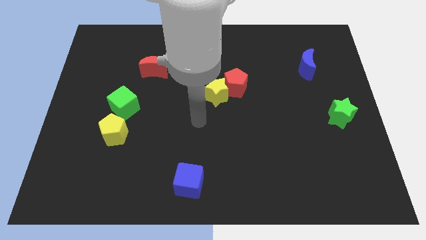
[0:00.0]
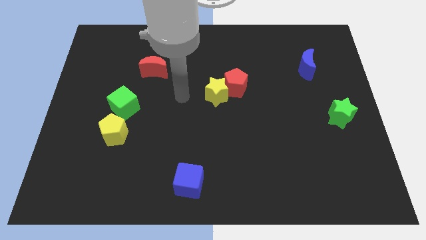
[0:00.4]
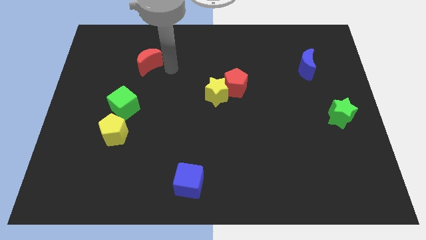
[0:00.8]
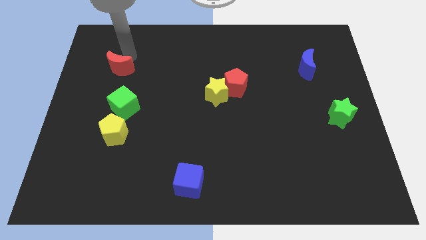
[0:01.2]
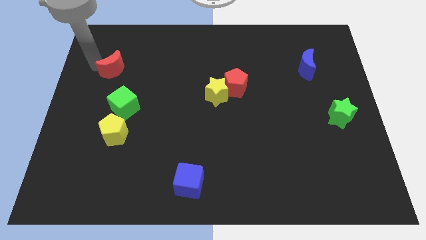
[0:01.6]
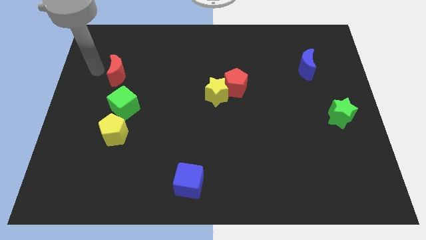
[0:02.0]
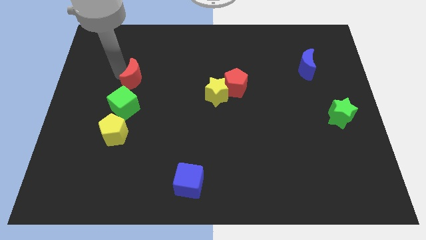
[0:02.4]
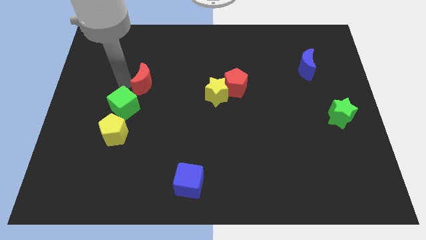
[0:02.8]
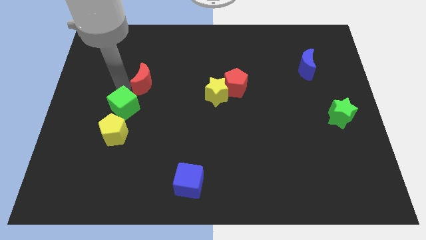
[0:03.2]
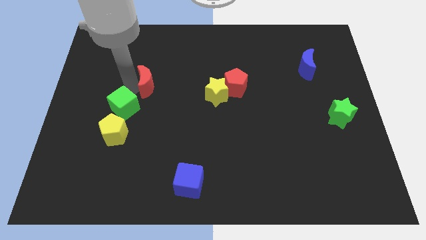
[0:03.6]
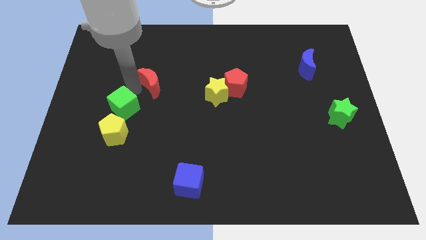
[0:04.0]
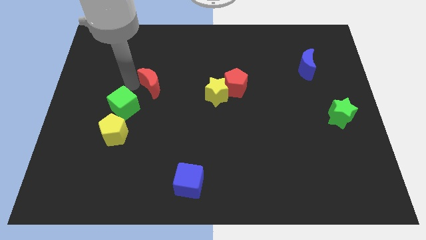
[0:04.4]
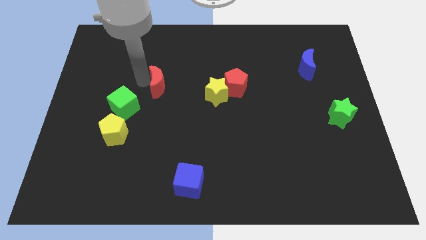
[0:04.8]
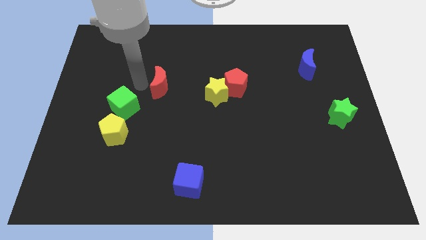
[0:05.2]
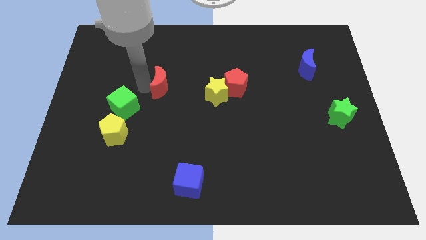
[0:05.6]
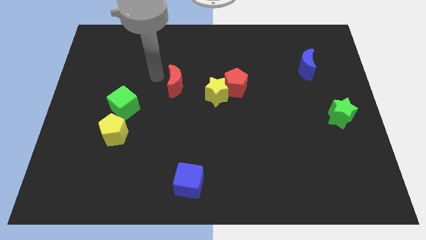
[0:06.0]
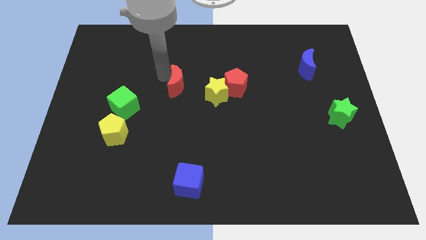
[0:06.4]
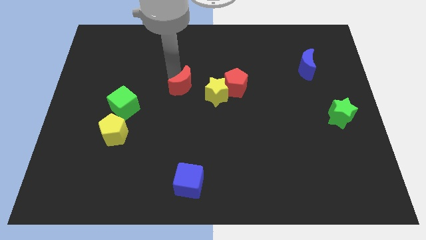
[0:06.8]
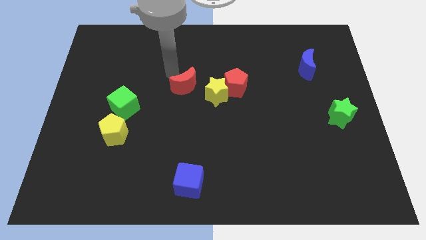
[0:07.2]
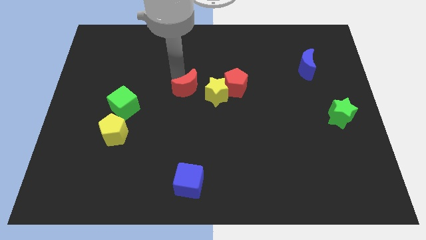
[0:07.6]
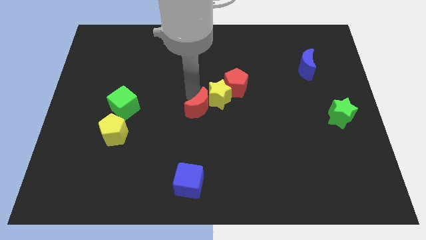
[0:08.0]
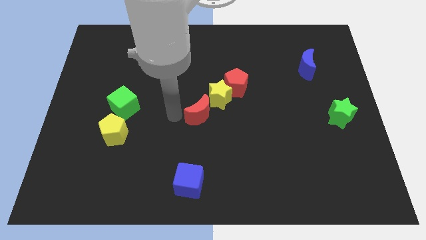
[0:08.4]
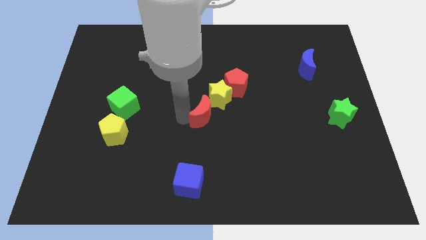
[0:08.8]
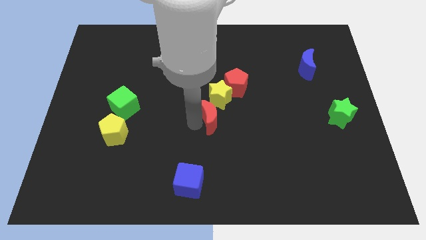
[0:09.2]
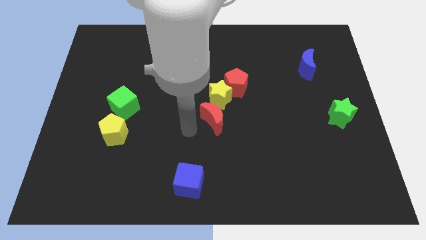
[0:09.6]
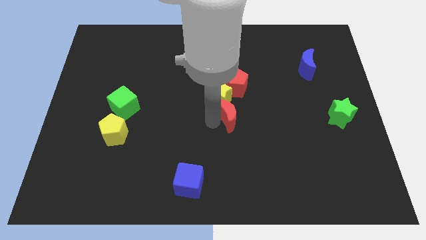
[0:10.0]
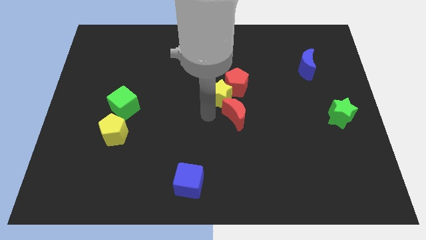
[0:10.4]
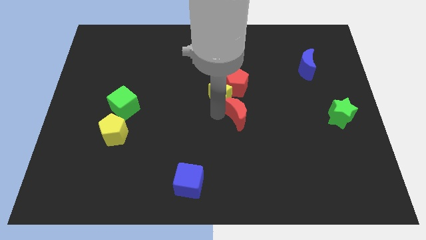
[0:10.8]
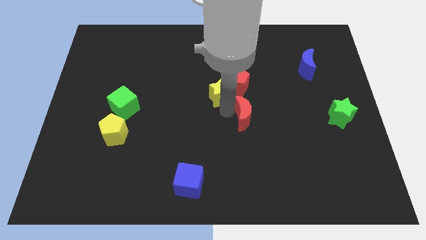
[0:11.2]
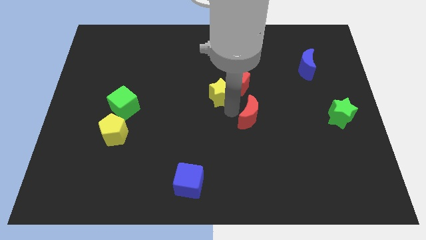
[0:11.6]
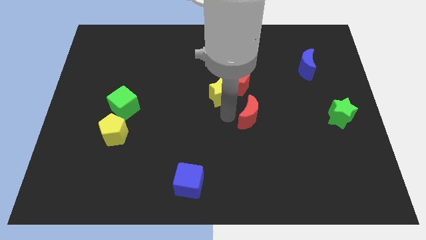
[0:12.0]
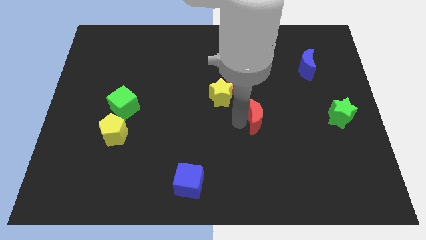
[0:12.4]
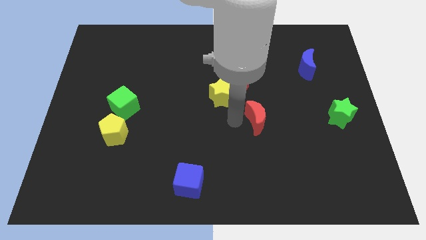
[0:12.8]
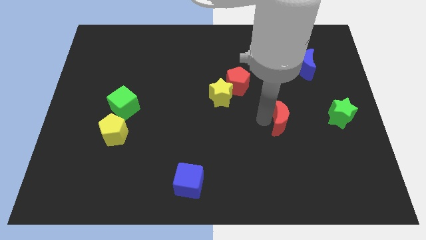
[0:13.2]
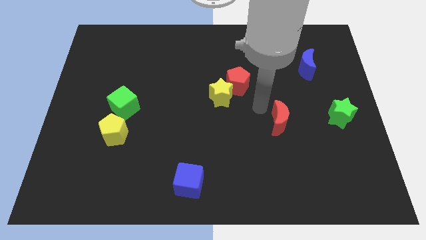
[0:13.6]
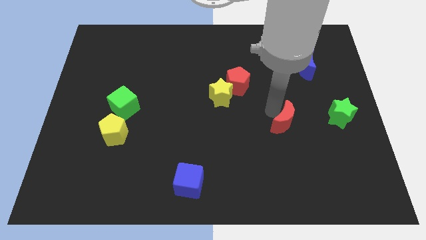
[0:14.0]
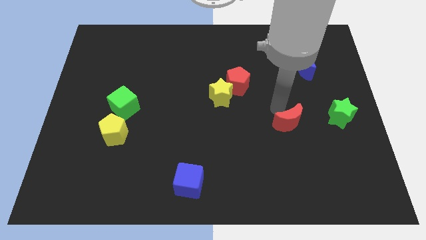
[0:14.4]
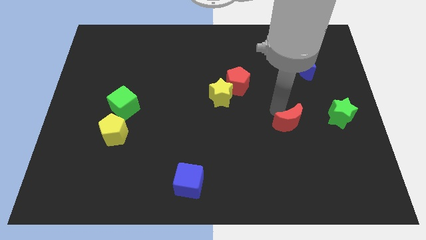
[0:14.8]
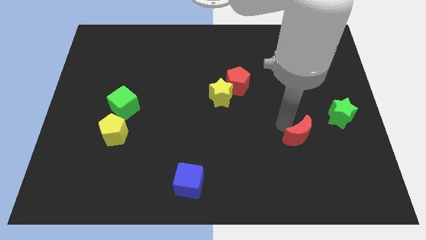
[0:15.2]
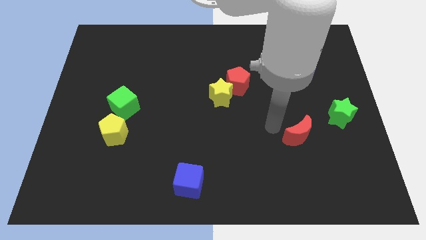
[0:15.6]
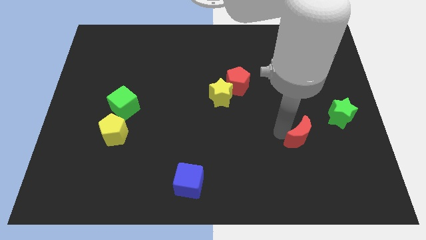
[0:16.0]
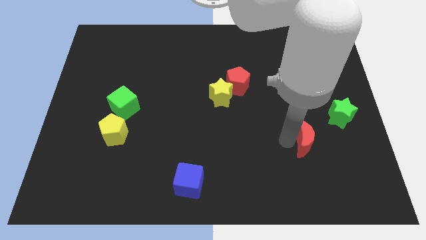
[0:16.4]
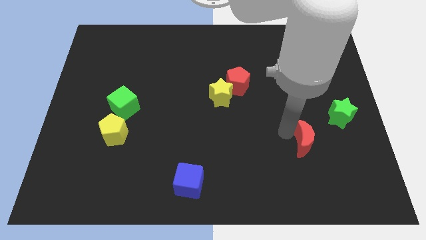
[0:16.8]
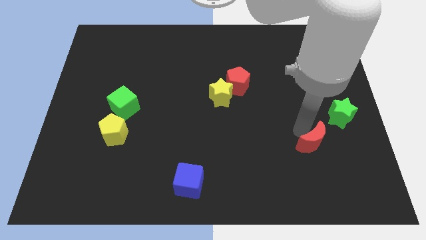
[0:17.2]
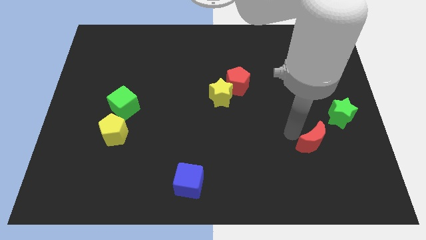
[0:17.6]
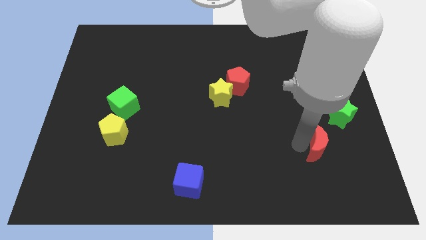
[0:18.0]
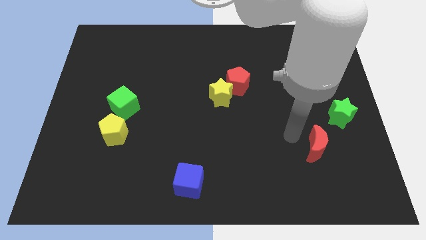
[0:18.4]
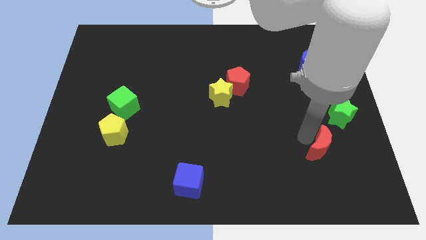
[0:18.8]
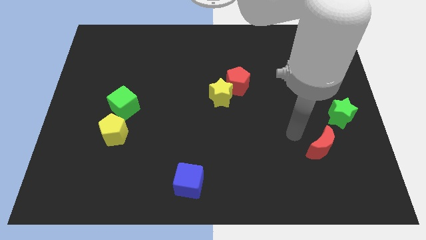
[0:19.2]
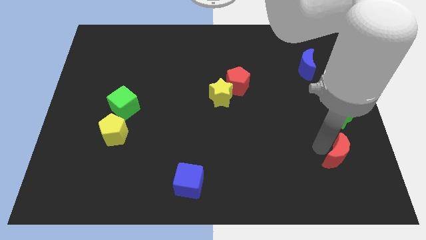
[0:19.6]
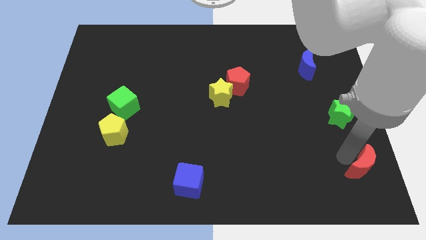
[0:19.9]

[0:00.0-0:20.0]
push the red moon to the bottom right

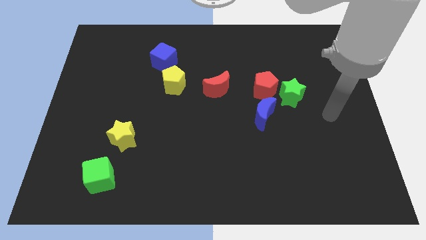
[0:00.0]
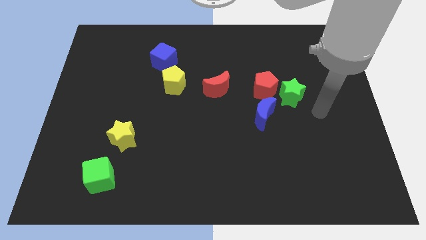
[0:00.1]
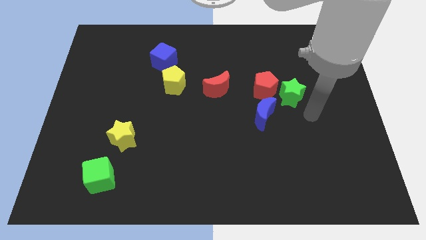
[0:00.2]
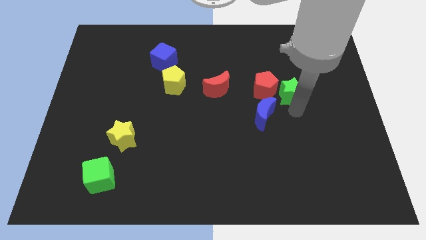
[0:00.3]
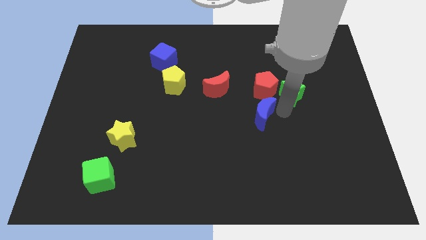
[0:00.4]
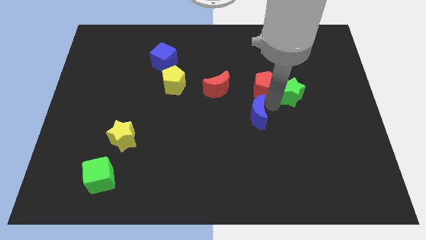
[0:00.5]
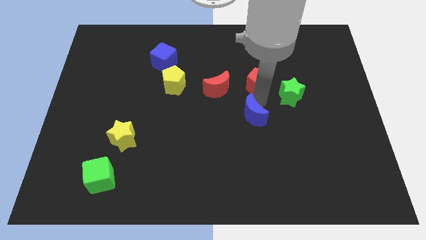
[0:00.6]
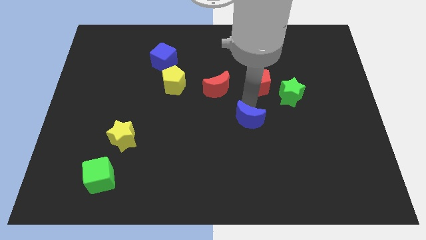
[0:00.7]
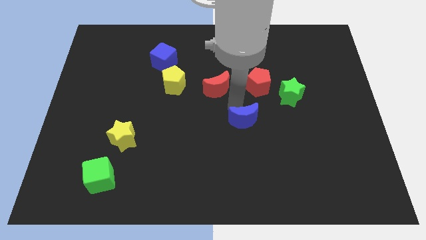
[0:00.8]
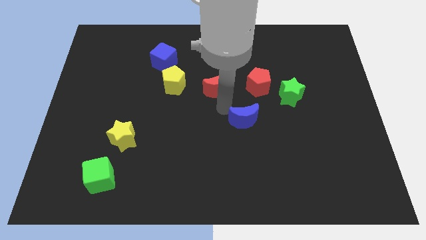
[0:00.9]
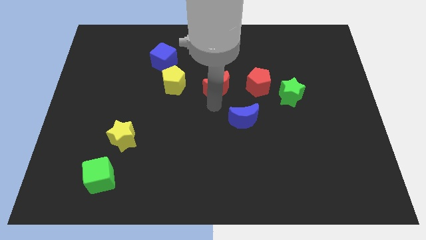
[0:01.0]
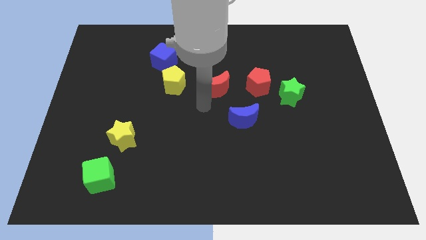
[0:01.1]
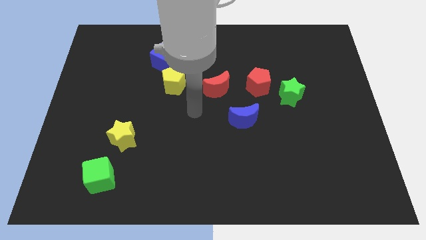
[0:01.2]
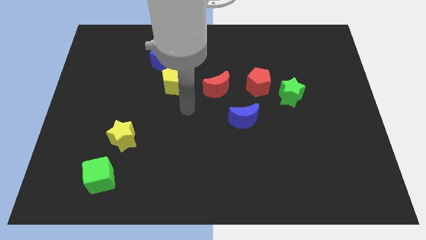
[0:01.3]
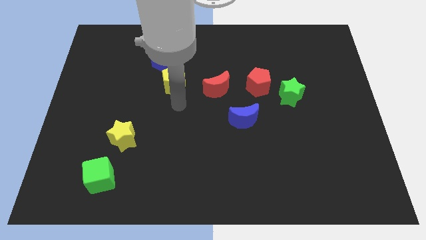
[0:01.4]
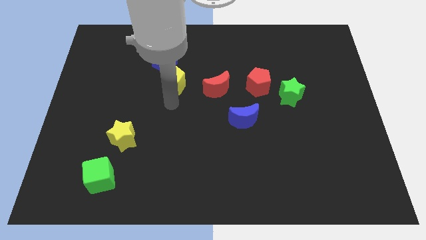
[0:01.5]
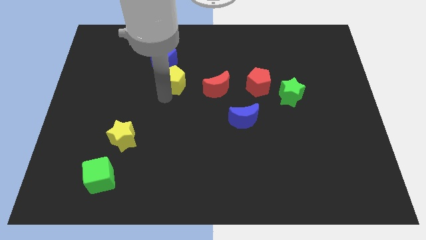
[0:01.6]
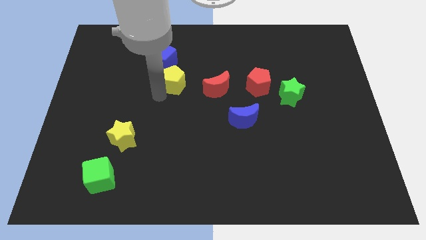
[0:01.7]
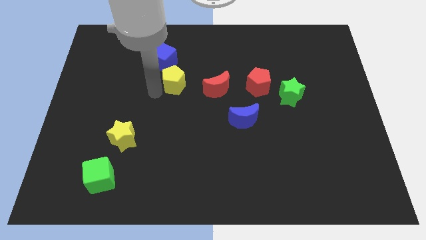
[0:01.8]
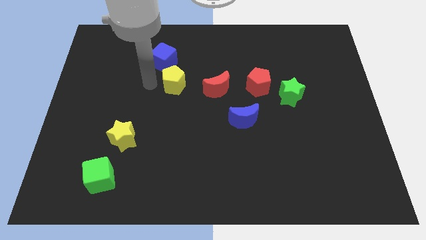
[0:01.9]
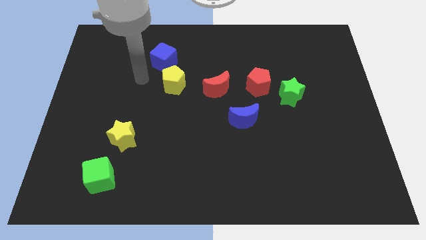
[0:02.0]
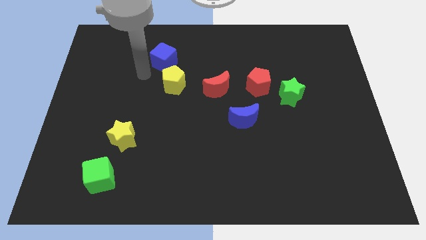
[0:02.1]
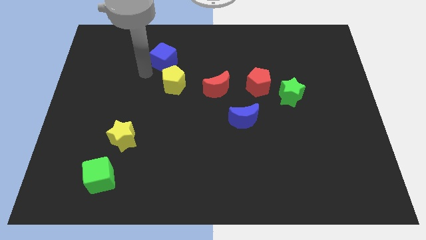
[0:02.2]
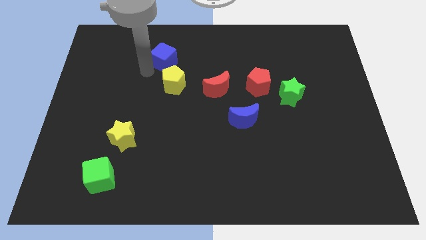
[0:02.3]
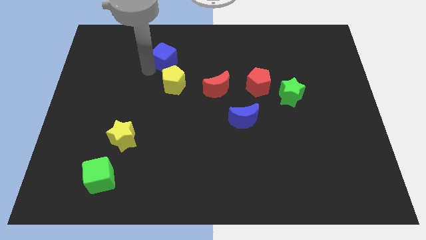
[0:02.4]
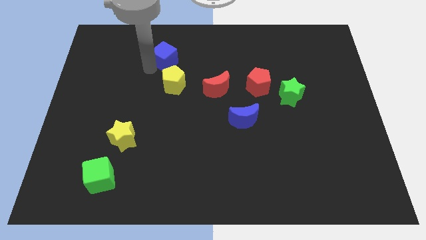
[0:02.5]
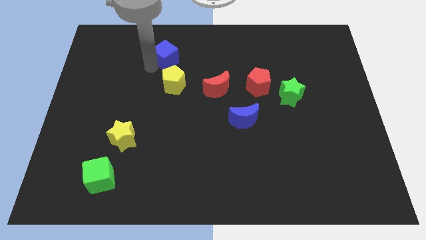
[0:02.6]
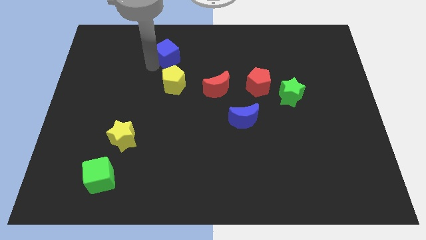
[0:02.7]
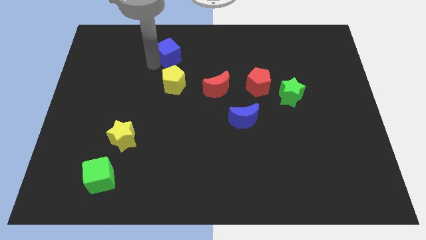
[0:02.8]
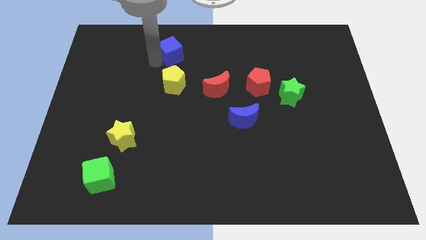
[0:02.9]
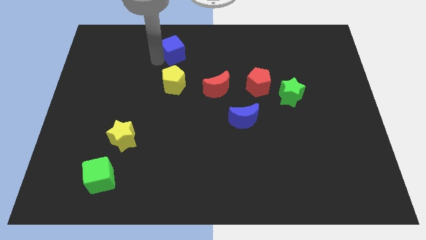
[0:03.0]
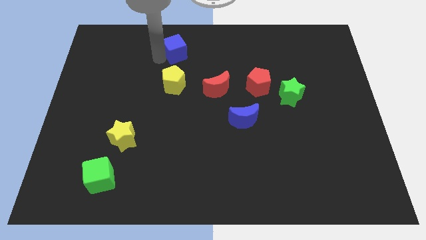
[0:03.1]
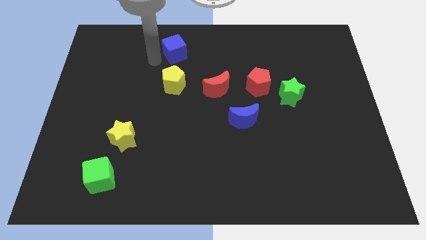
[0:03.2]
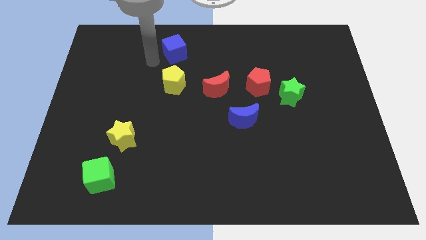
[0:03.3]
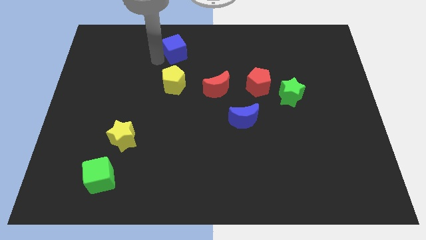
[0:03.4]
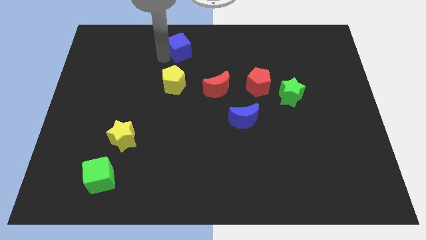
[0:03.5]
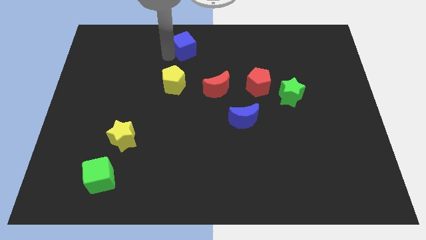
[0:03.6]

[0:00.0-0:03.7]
push the blue cube to the top
